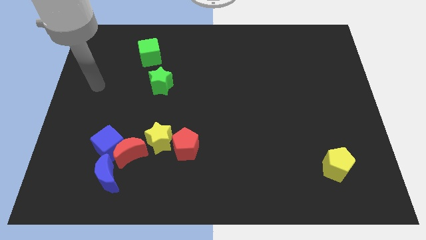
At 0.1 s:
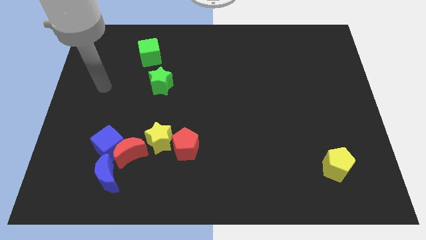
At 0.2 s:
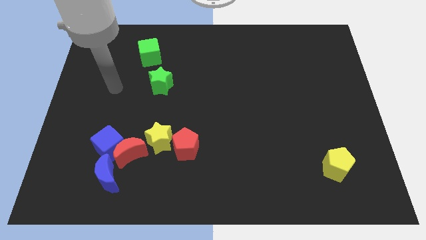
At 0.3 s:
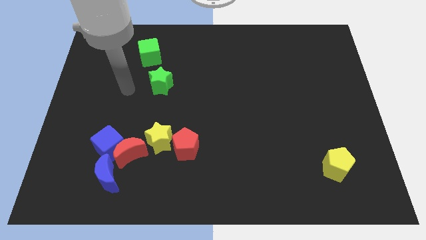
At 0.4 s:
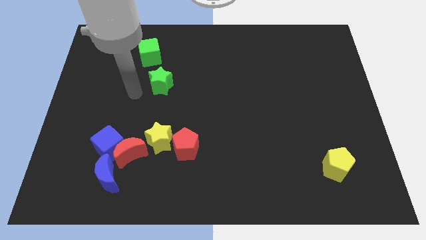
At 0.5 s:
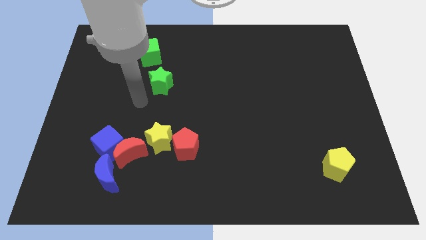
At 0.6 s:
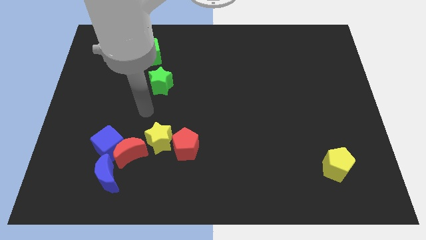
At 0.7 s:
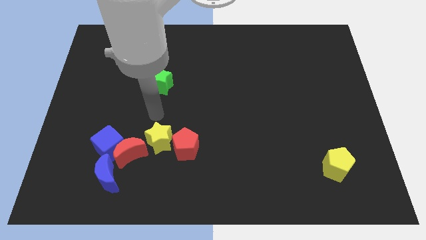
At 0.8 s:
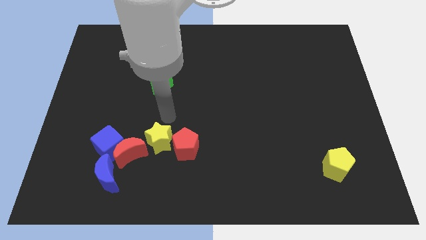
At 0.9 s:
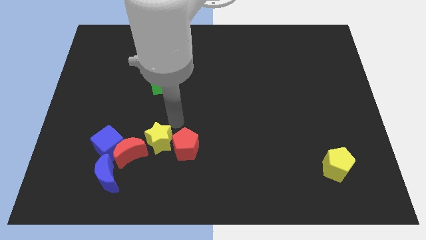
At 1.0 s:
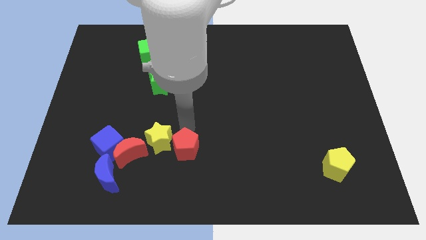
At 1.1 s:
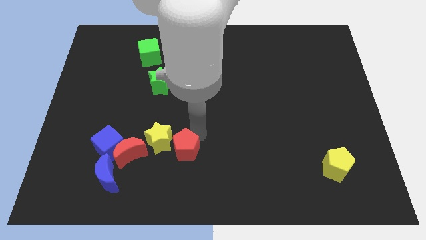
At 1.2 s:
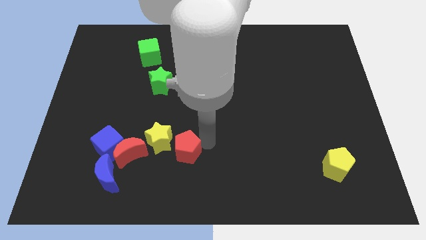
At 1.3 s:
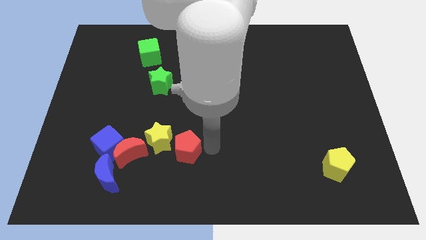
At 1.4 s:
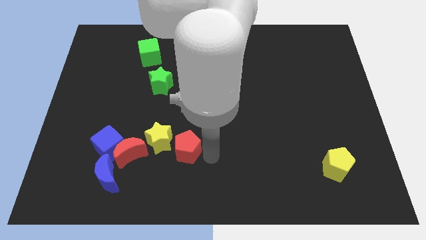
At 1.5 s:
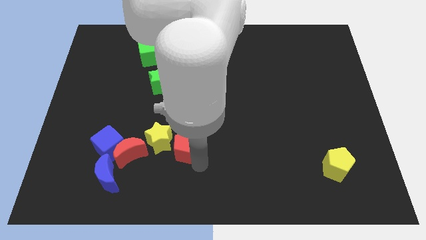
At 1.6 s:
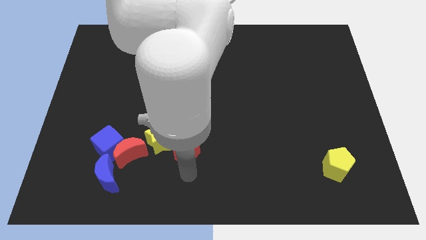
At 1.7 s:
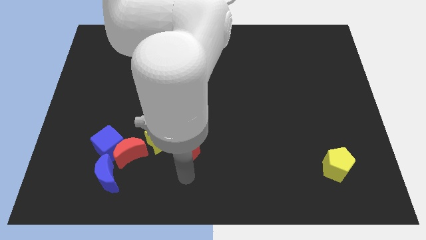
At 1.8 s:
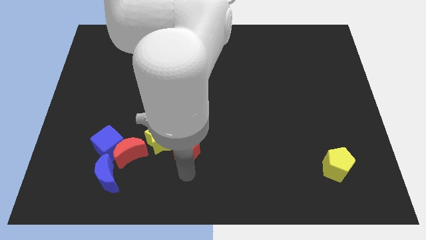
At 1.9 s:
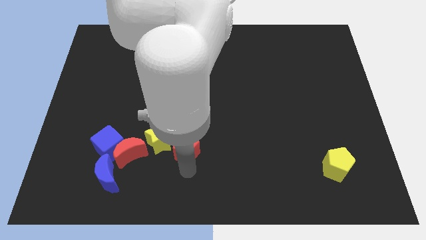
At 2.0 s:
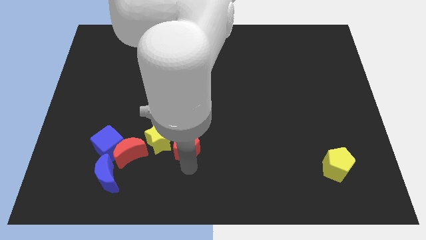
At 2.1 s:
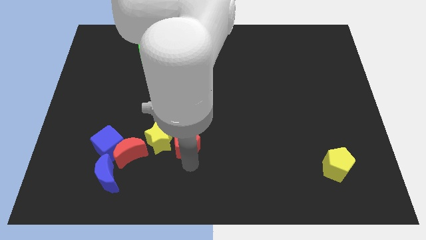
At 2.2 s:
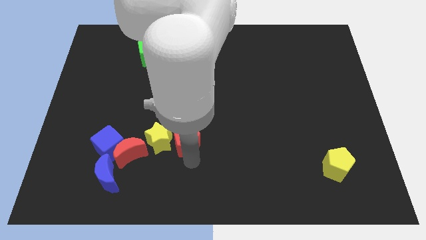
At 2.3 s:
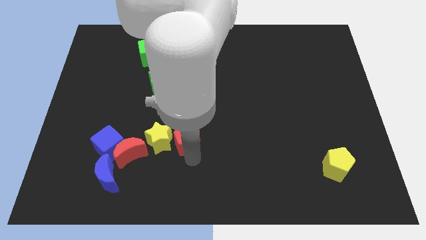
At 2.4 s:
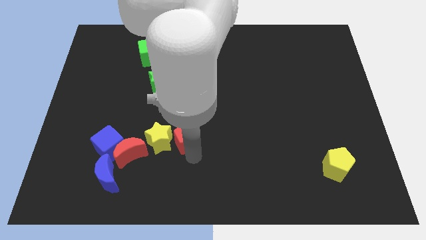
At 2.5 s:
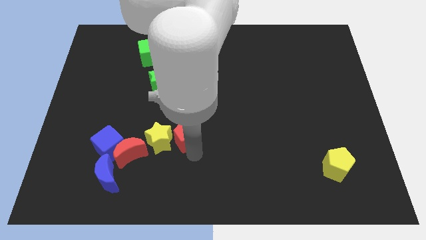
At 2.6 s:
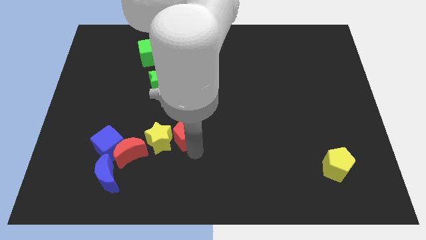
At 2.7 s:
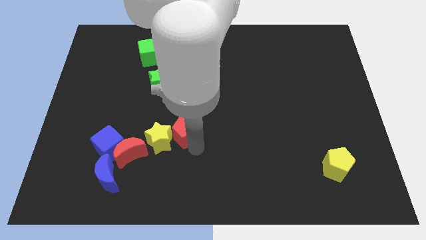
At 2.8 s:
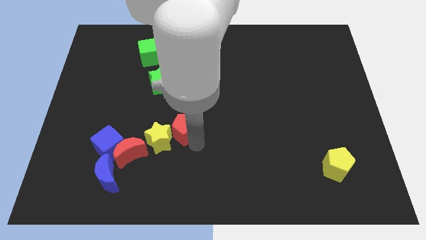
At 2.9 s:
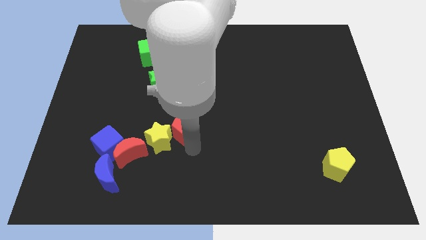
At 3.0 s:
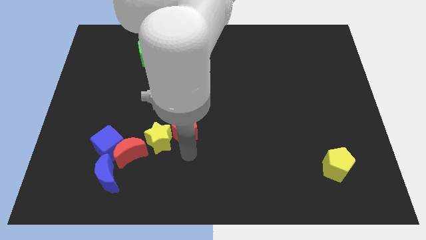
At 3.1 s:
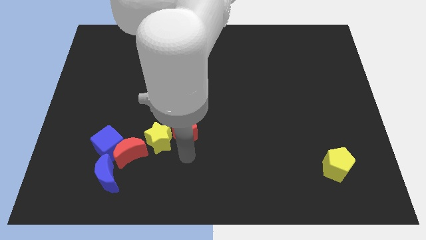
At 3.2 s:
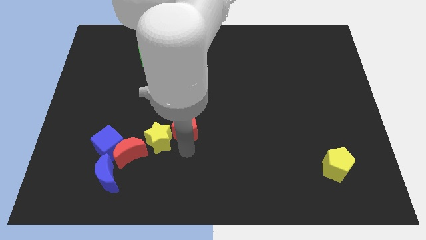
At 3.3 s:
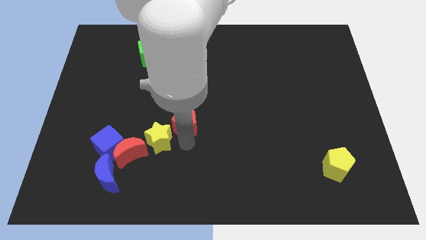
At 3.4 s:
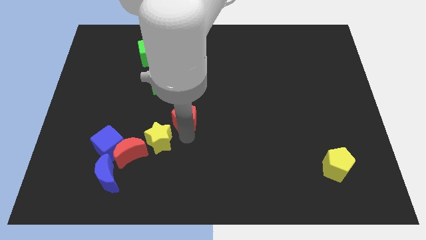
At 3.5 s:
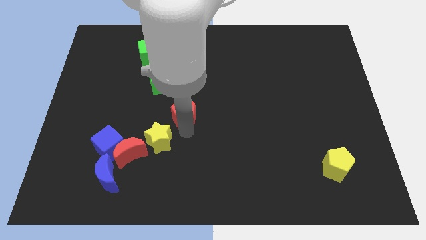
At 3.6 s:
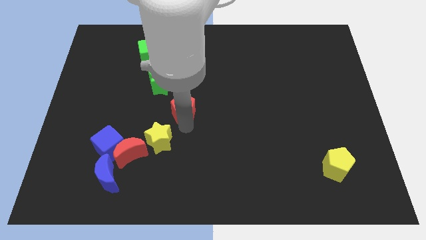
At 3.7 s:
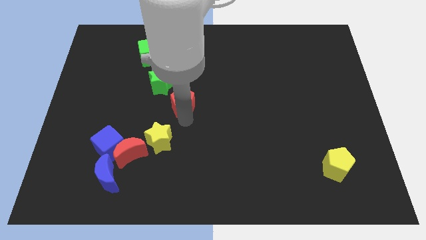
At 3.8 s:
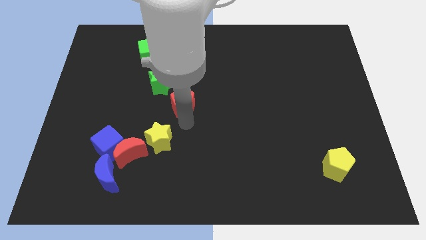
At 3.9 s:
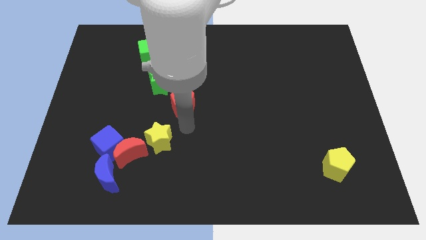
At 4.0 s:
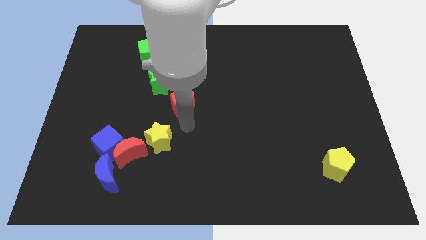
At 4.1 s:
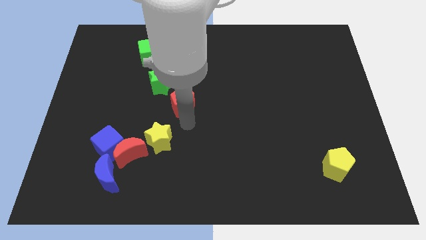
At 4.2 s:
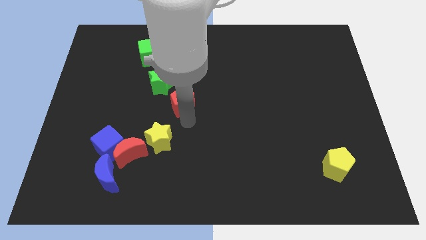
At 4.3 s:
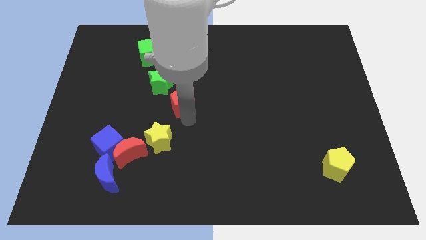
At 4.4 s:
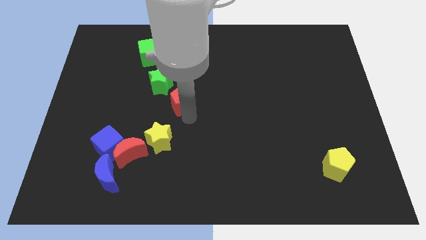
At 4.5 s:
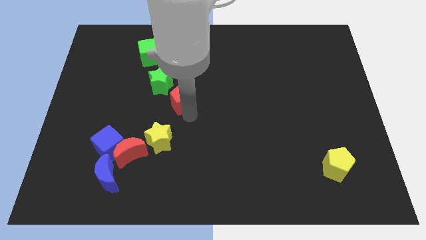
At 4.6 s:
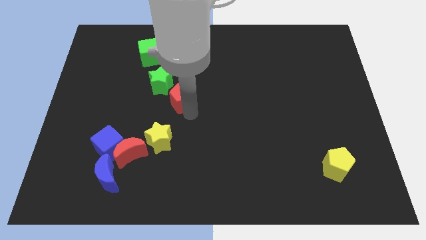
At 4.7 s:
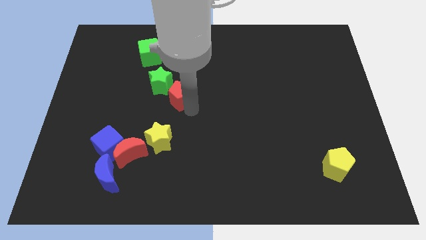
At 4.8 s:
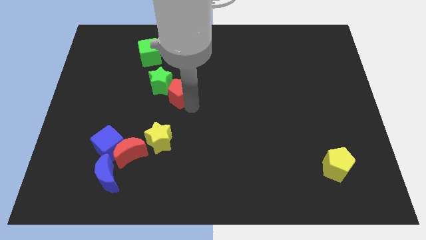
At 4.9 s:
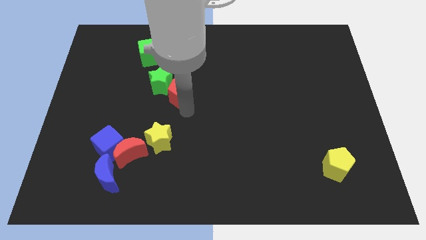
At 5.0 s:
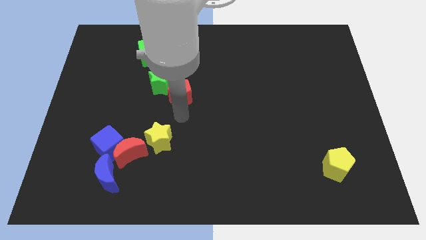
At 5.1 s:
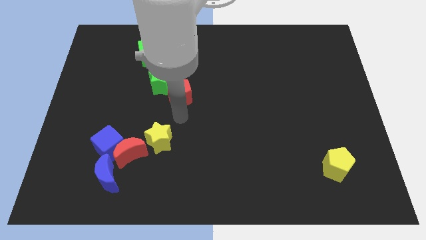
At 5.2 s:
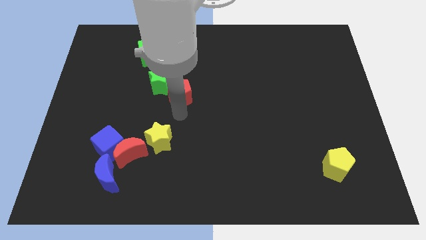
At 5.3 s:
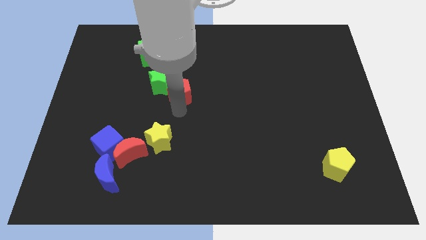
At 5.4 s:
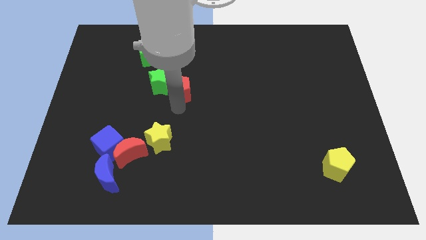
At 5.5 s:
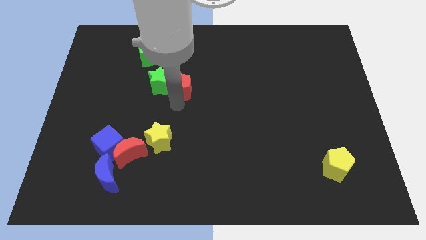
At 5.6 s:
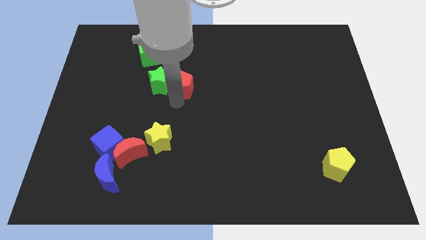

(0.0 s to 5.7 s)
move the red pentagon to the top right of the green star

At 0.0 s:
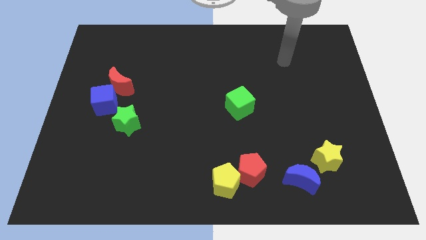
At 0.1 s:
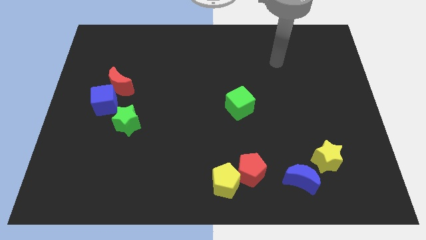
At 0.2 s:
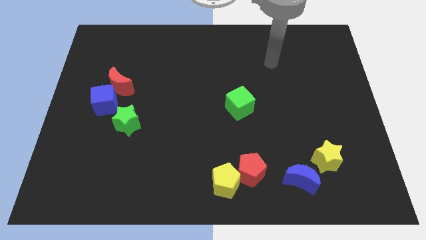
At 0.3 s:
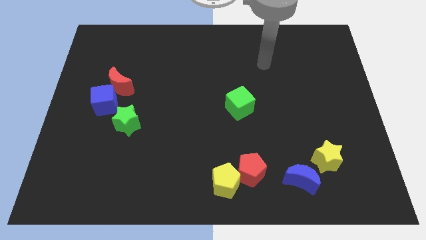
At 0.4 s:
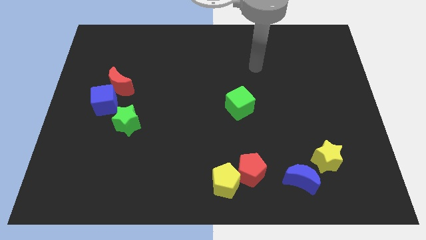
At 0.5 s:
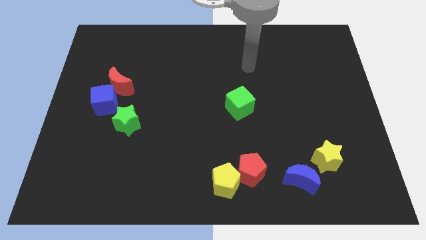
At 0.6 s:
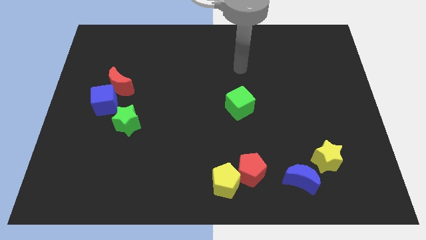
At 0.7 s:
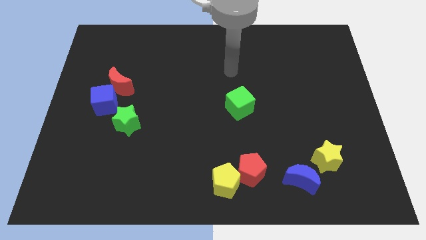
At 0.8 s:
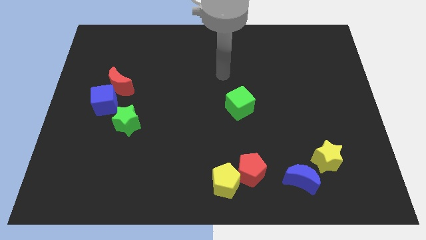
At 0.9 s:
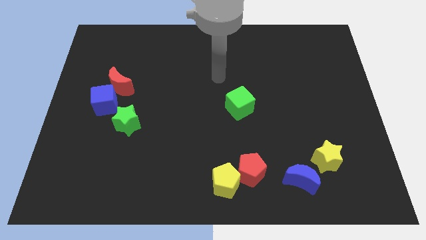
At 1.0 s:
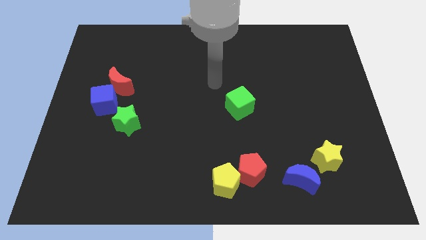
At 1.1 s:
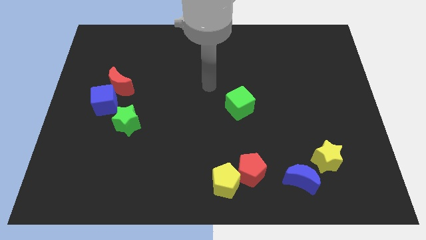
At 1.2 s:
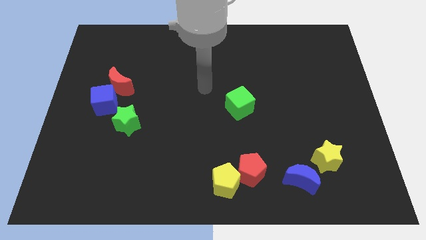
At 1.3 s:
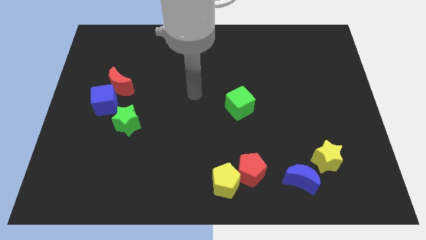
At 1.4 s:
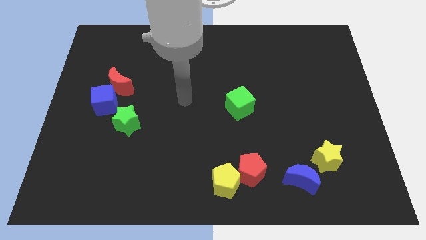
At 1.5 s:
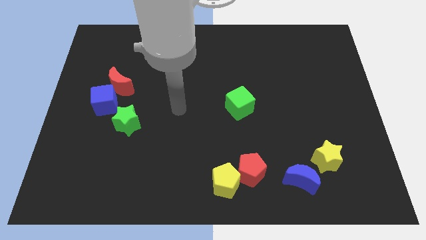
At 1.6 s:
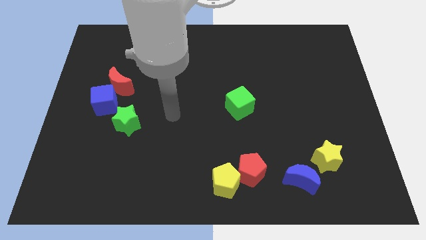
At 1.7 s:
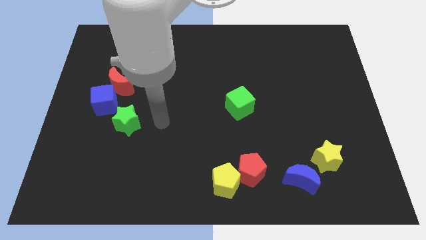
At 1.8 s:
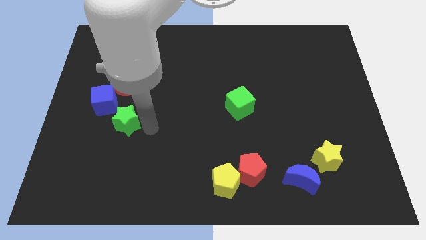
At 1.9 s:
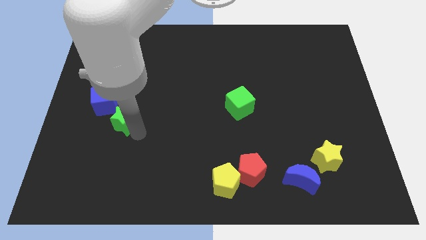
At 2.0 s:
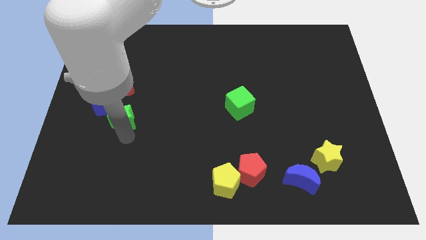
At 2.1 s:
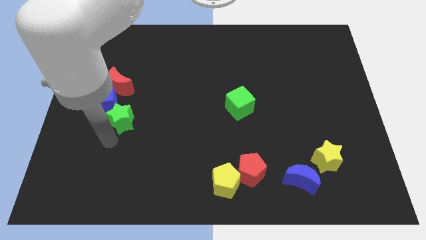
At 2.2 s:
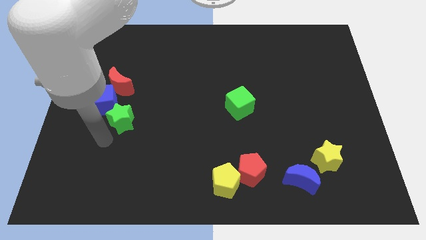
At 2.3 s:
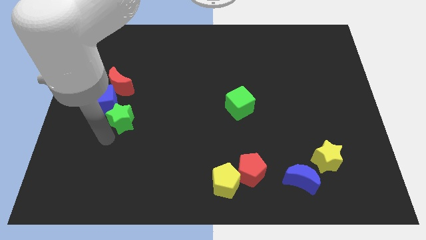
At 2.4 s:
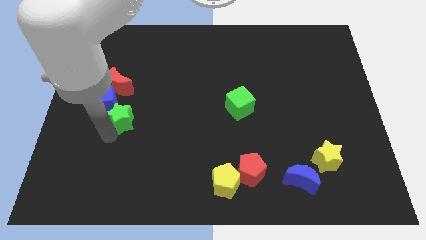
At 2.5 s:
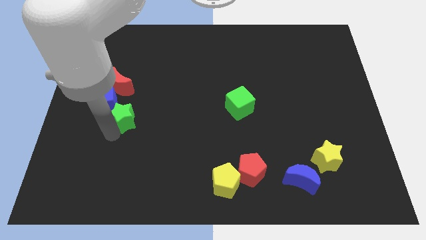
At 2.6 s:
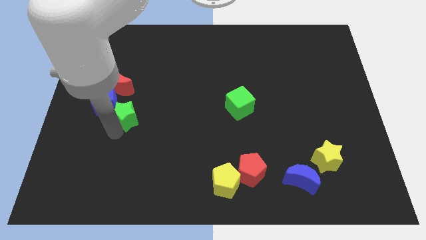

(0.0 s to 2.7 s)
slide the green star to the bottom right of the red moon
